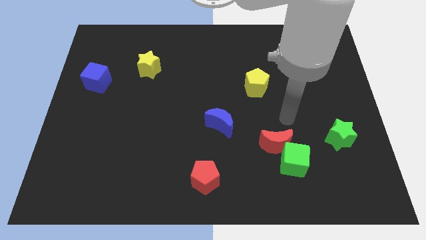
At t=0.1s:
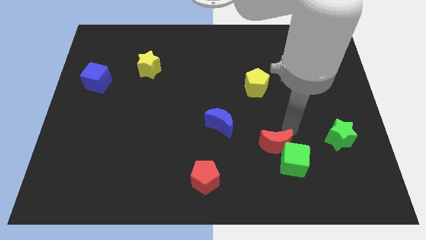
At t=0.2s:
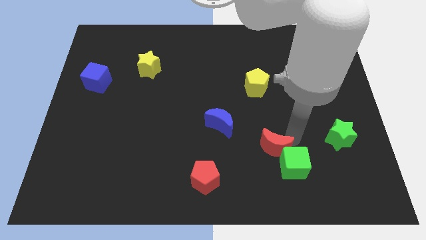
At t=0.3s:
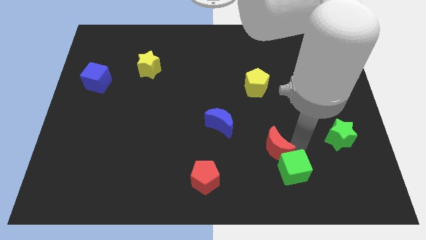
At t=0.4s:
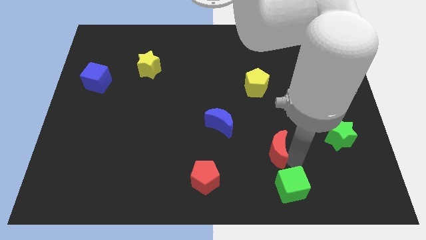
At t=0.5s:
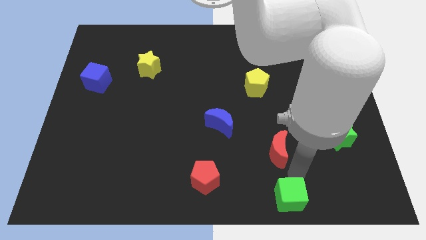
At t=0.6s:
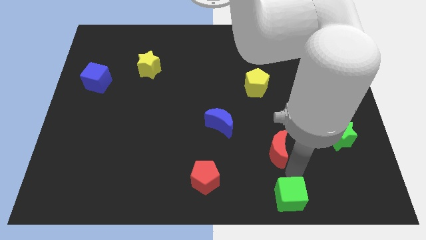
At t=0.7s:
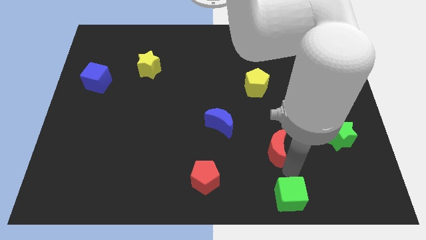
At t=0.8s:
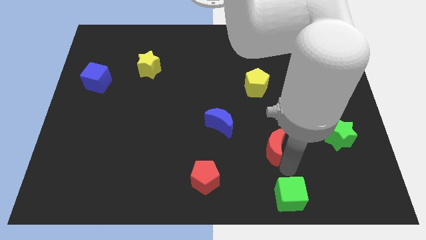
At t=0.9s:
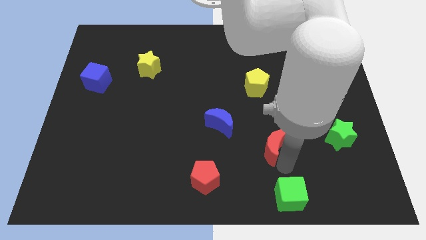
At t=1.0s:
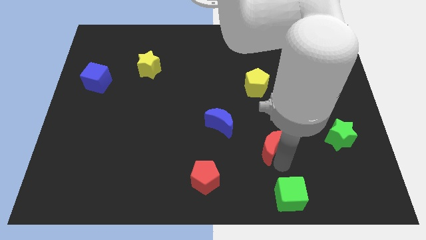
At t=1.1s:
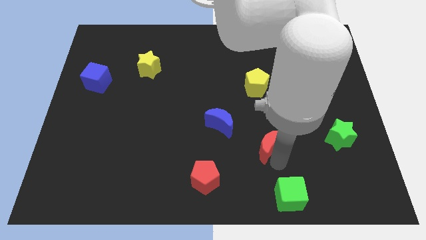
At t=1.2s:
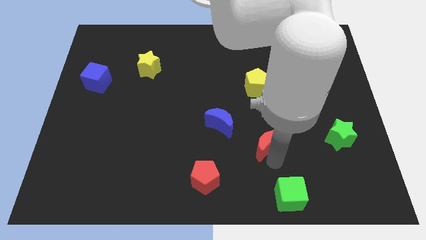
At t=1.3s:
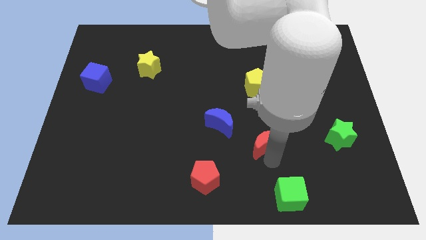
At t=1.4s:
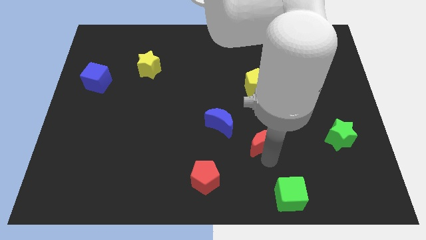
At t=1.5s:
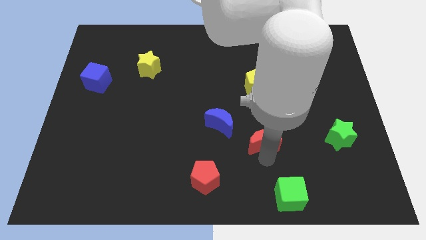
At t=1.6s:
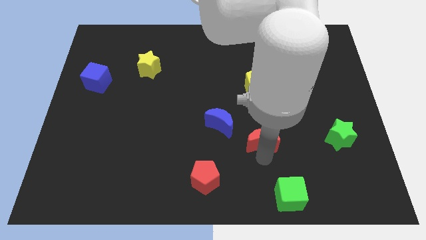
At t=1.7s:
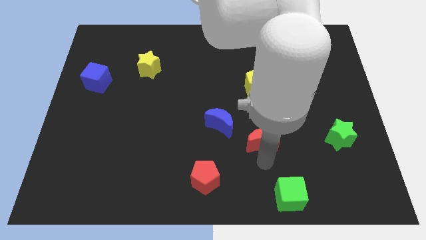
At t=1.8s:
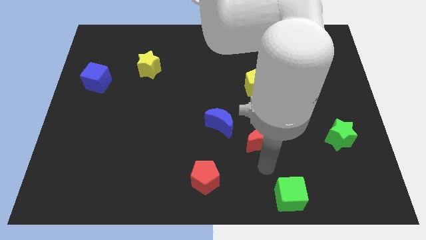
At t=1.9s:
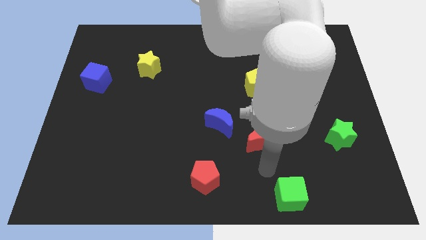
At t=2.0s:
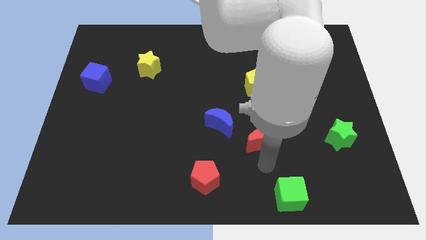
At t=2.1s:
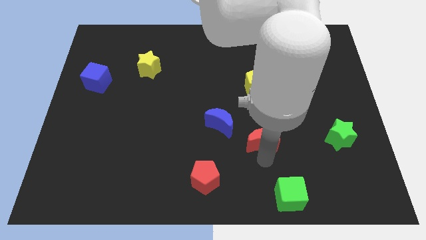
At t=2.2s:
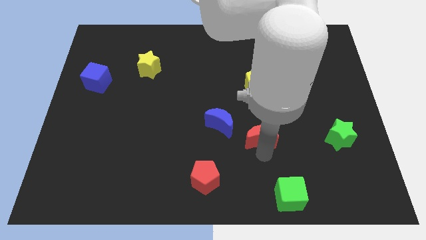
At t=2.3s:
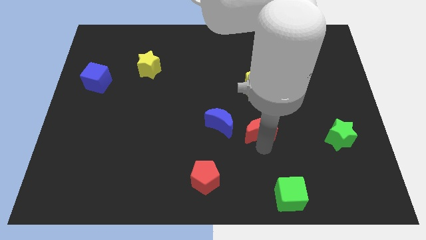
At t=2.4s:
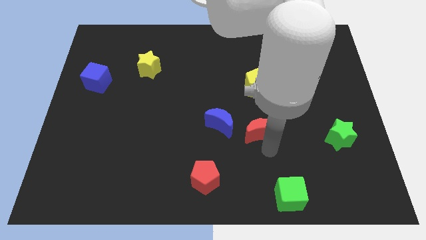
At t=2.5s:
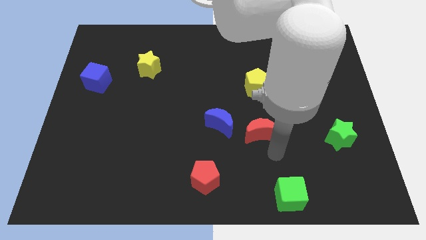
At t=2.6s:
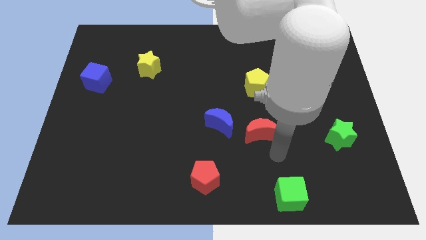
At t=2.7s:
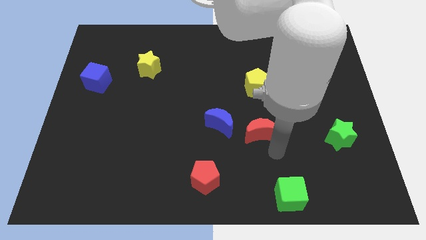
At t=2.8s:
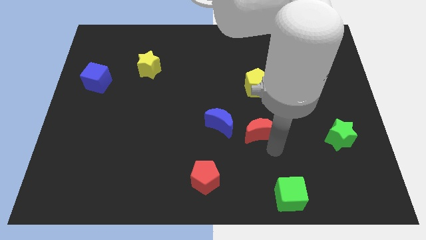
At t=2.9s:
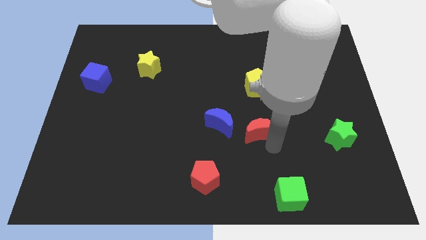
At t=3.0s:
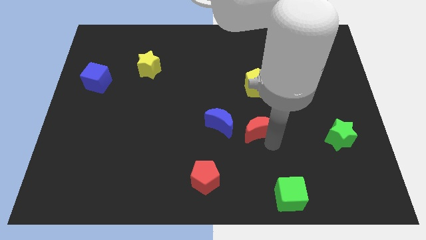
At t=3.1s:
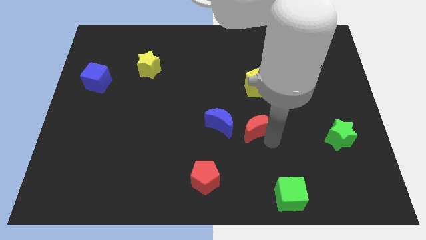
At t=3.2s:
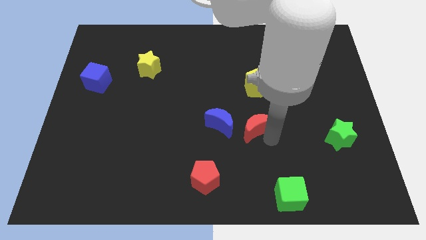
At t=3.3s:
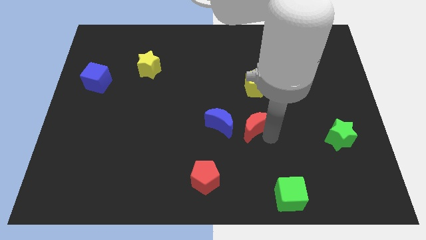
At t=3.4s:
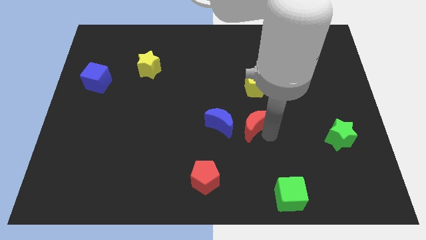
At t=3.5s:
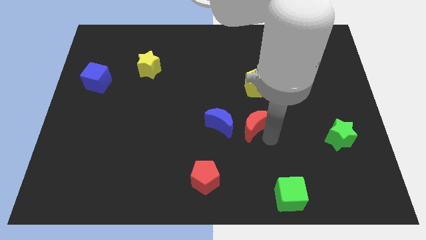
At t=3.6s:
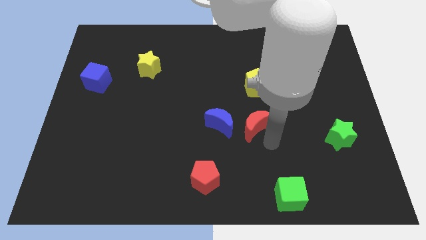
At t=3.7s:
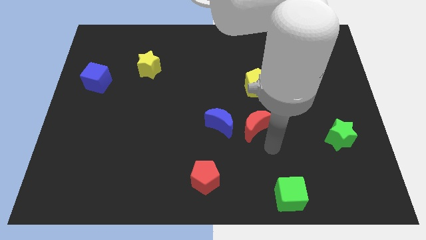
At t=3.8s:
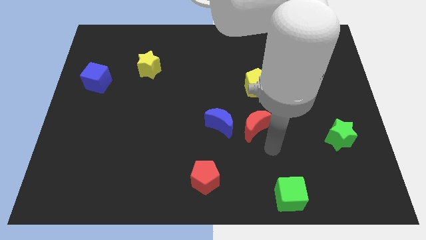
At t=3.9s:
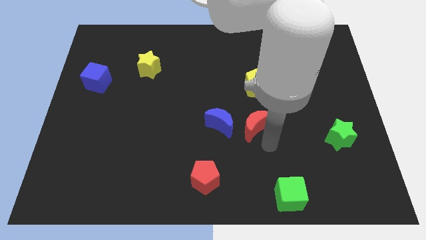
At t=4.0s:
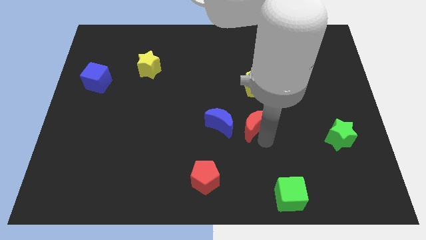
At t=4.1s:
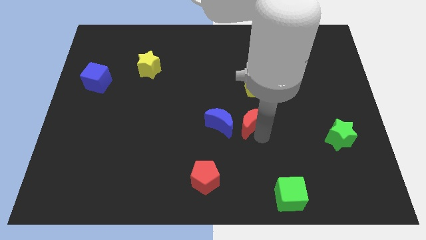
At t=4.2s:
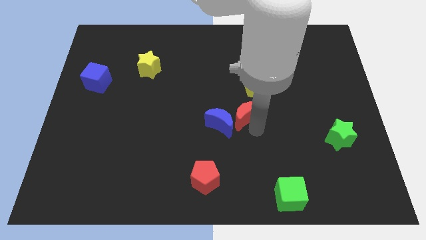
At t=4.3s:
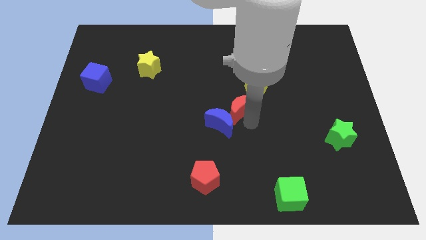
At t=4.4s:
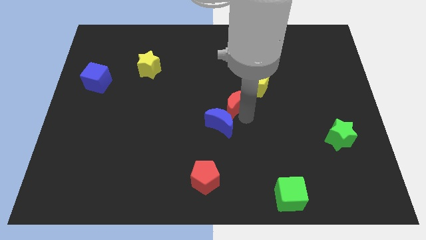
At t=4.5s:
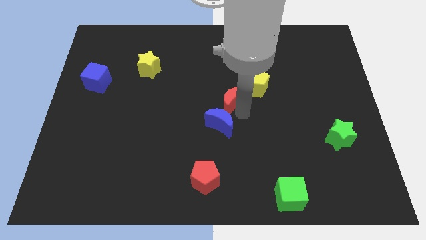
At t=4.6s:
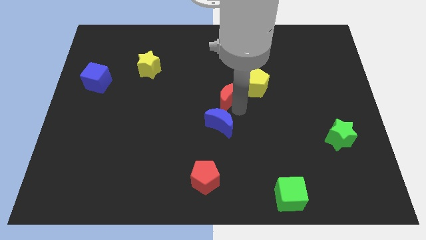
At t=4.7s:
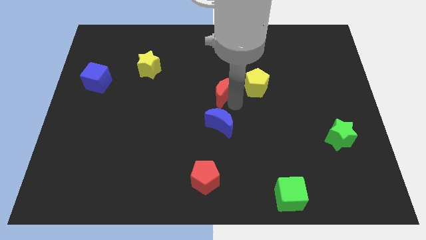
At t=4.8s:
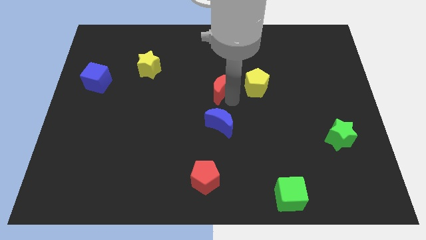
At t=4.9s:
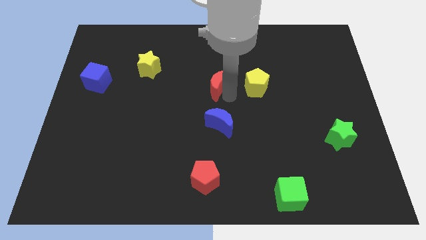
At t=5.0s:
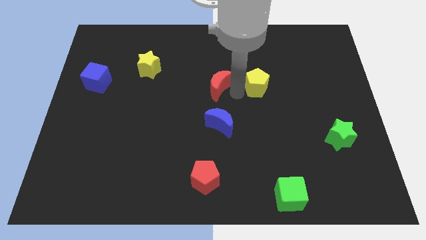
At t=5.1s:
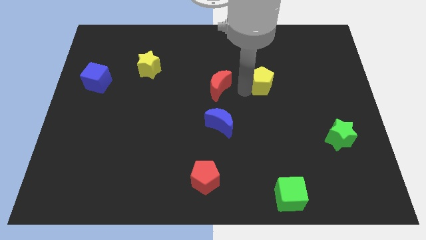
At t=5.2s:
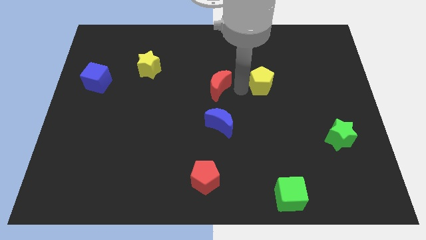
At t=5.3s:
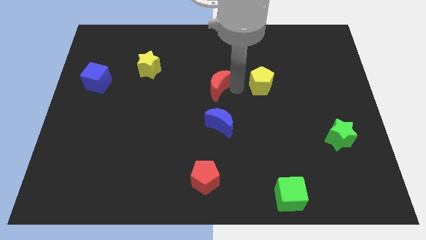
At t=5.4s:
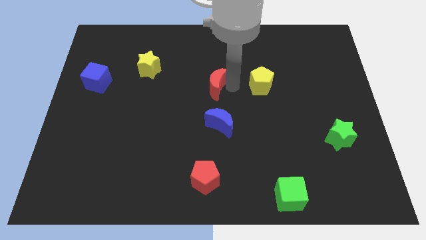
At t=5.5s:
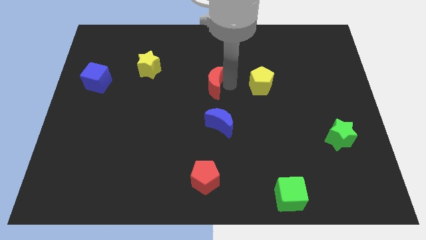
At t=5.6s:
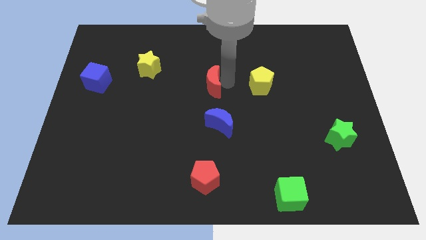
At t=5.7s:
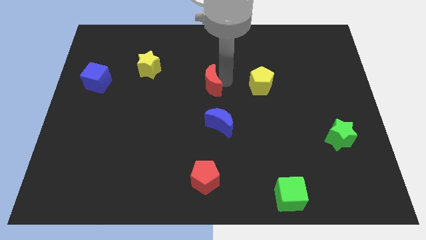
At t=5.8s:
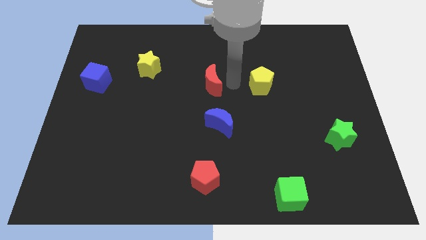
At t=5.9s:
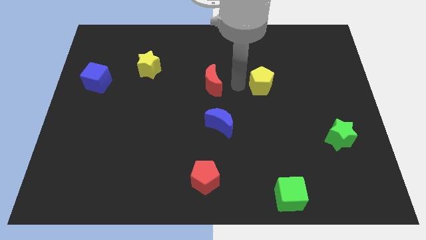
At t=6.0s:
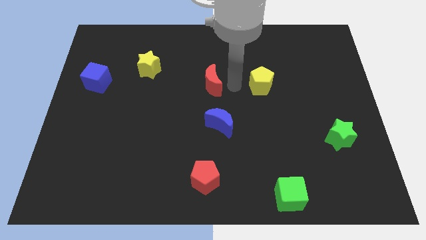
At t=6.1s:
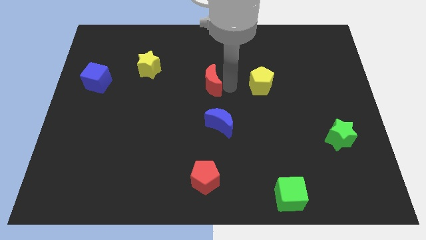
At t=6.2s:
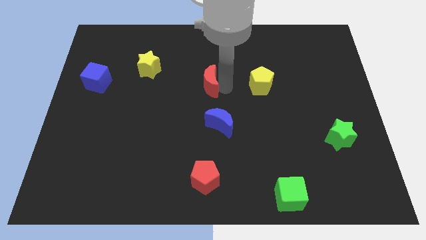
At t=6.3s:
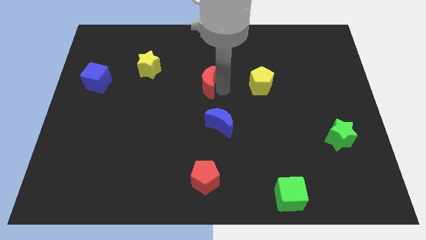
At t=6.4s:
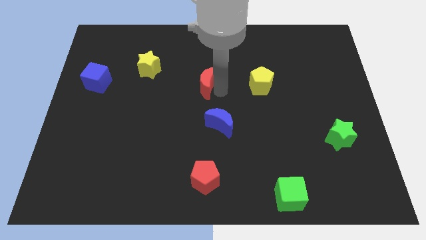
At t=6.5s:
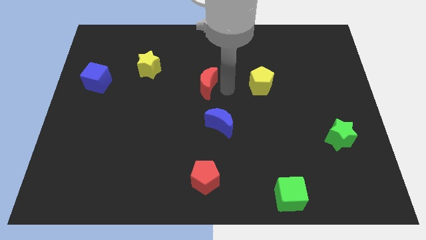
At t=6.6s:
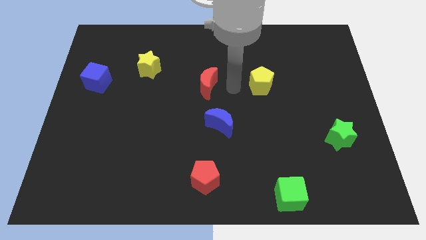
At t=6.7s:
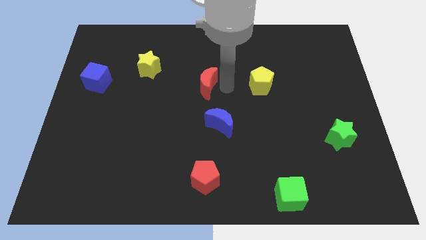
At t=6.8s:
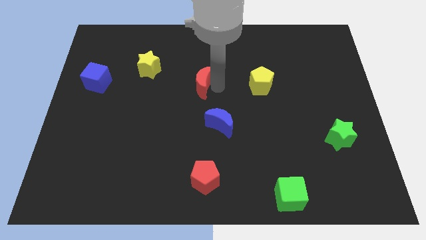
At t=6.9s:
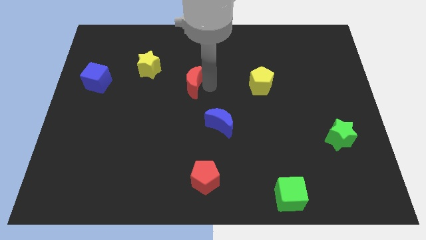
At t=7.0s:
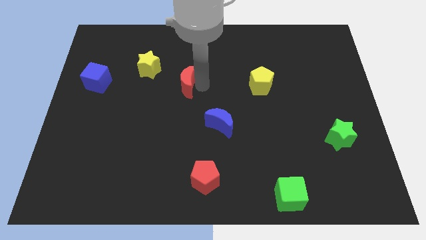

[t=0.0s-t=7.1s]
put the red moon to the bottom right side of the yellow star

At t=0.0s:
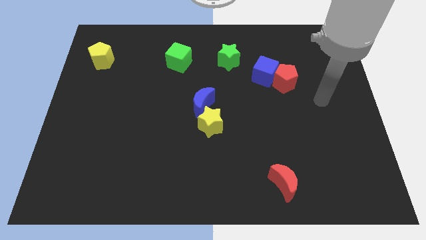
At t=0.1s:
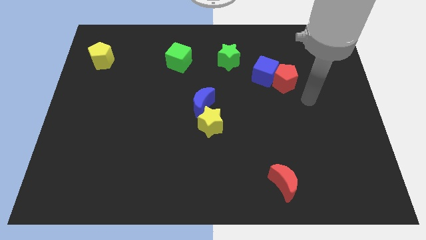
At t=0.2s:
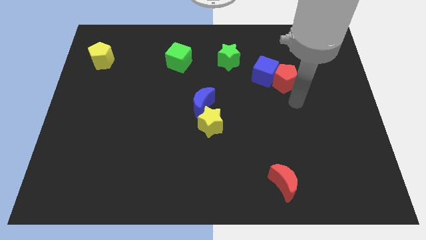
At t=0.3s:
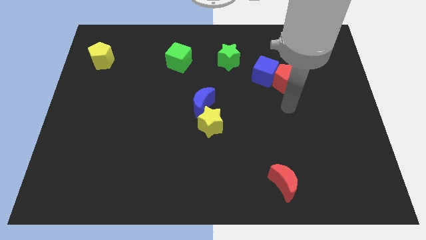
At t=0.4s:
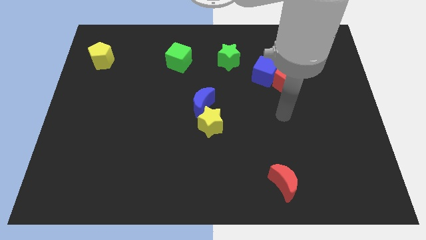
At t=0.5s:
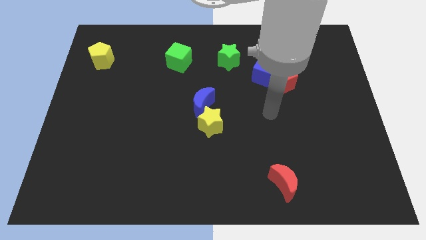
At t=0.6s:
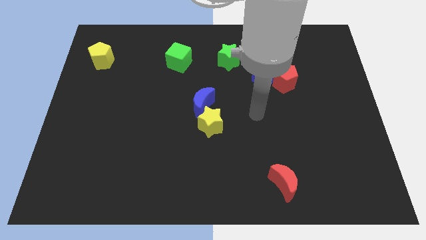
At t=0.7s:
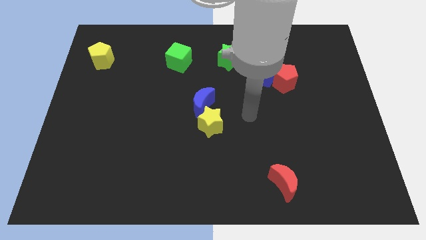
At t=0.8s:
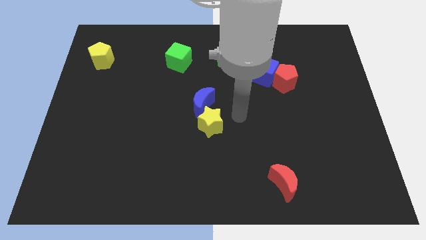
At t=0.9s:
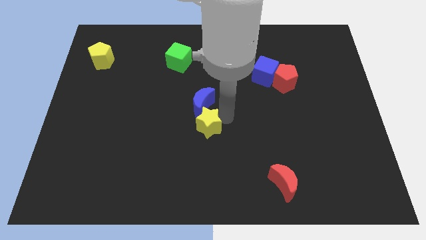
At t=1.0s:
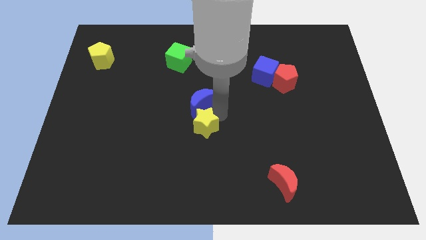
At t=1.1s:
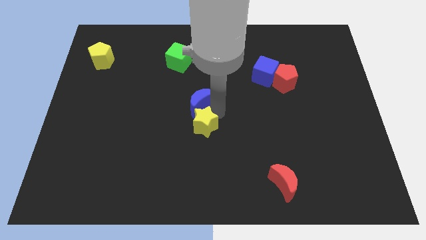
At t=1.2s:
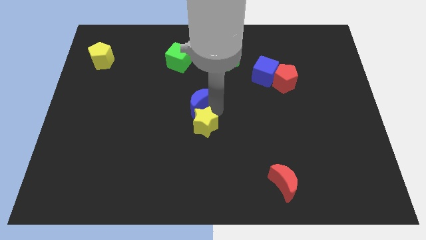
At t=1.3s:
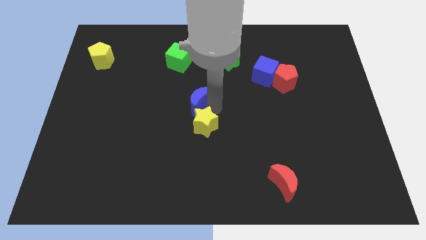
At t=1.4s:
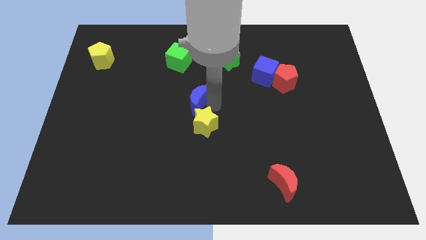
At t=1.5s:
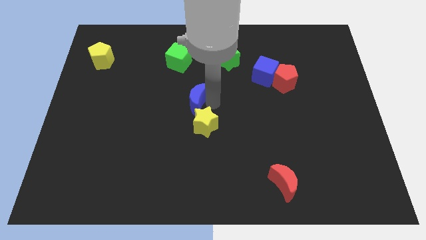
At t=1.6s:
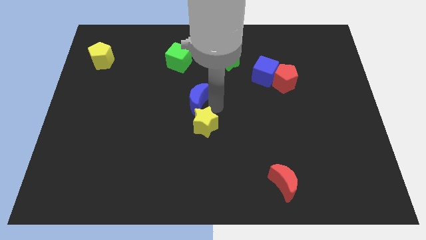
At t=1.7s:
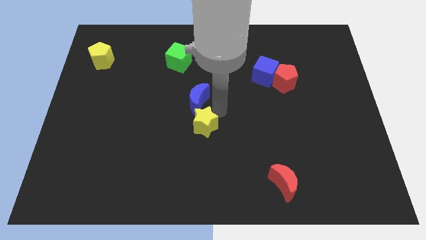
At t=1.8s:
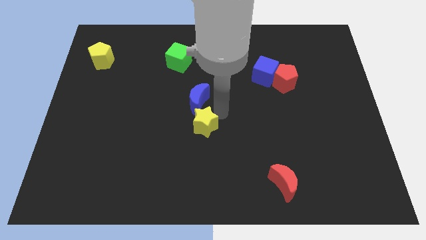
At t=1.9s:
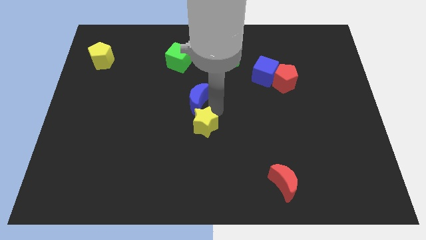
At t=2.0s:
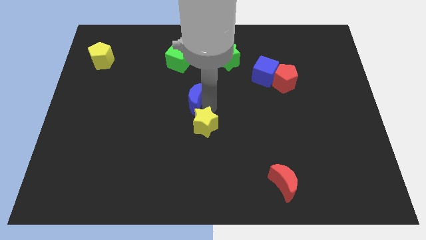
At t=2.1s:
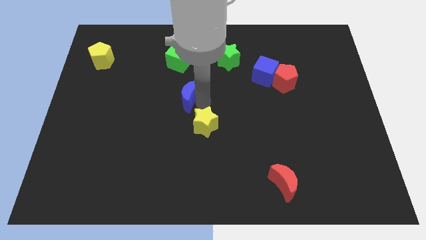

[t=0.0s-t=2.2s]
put the blue moon to the bottom side of the green cube
